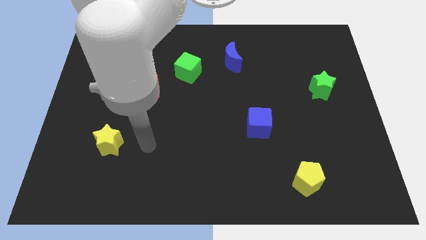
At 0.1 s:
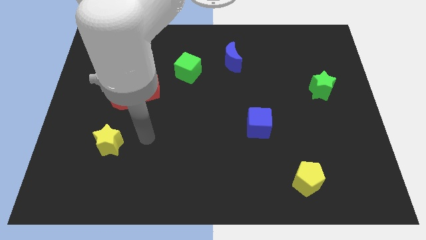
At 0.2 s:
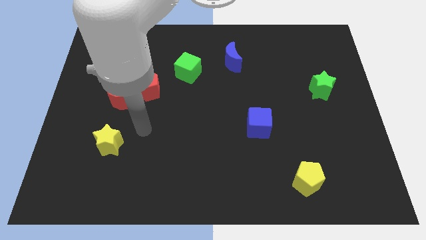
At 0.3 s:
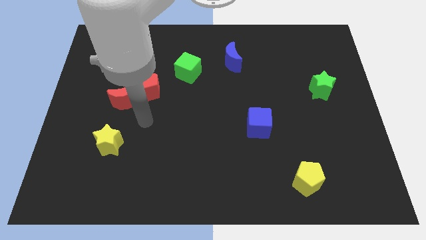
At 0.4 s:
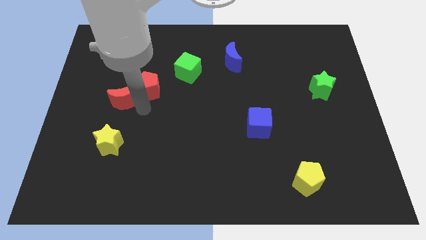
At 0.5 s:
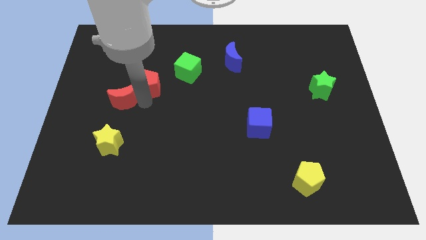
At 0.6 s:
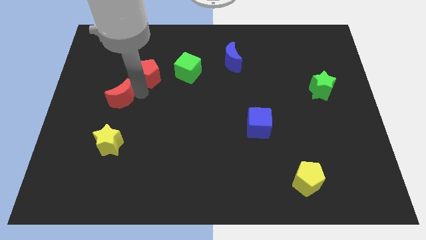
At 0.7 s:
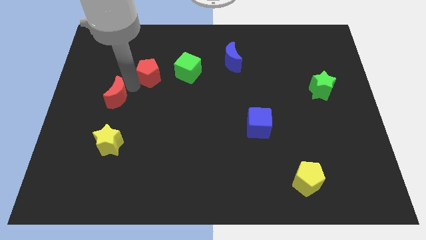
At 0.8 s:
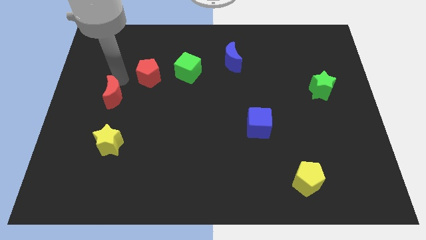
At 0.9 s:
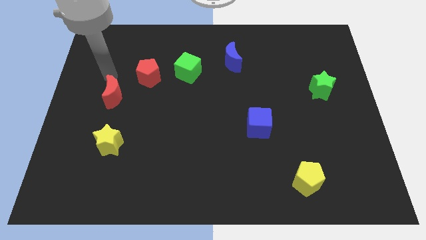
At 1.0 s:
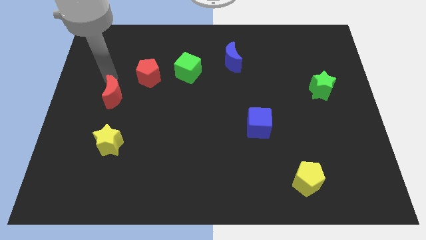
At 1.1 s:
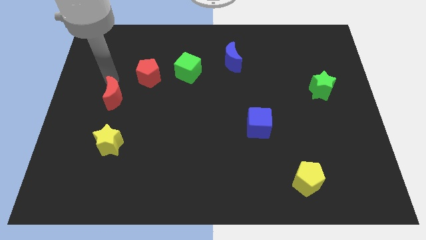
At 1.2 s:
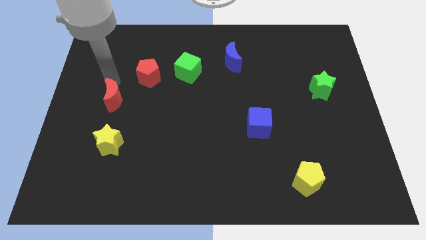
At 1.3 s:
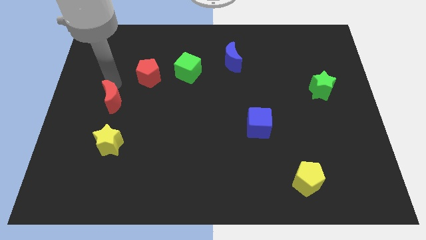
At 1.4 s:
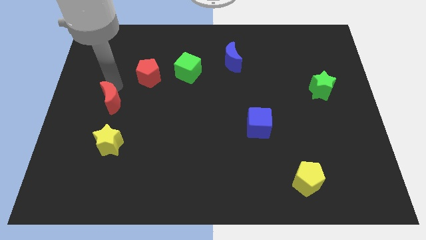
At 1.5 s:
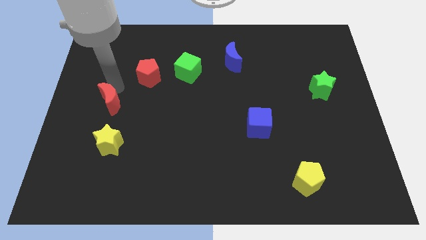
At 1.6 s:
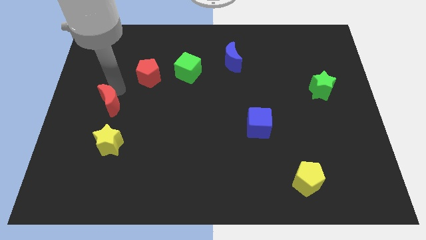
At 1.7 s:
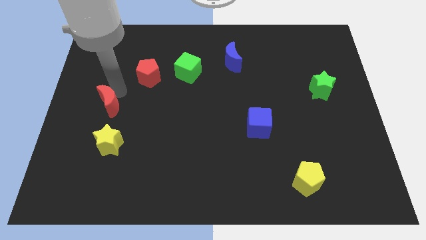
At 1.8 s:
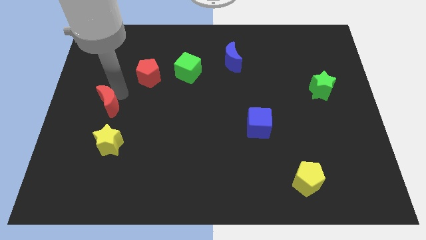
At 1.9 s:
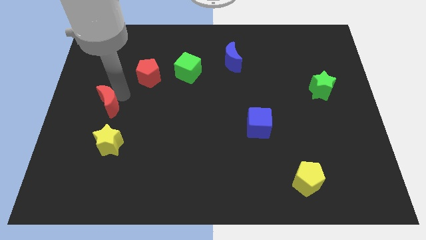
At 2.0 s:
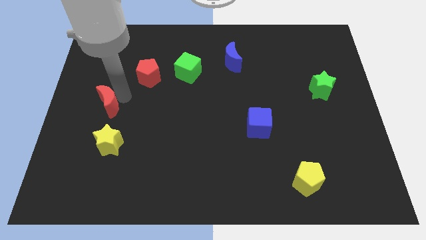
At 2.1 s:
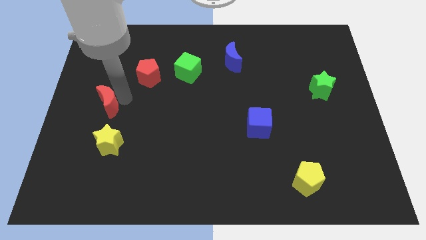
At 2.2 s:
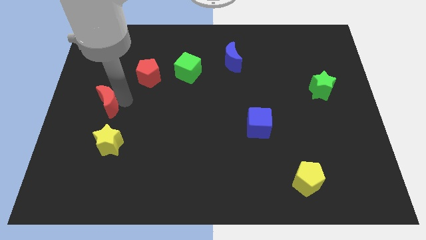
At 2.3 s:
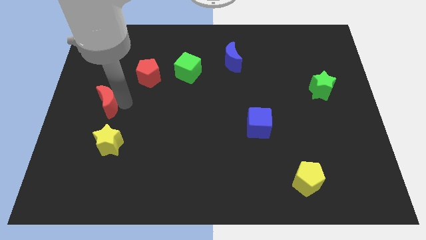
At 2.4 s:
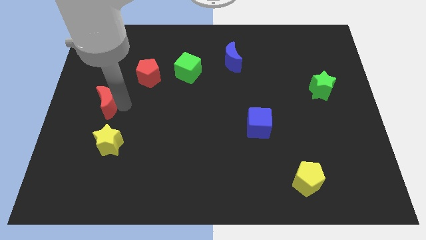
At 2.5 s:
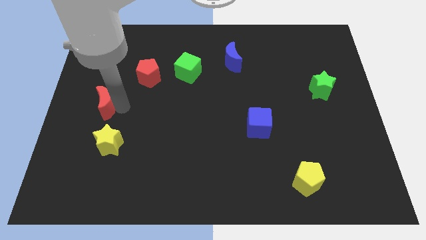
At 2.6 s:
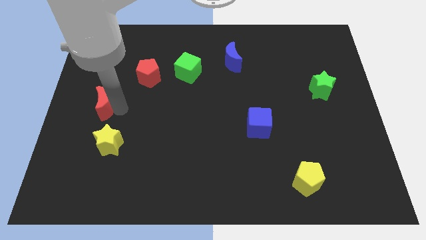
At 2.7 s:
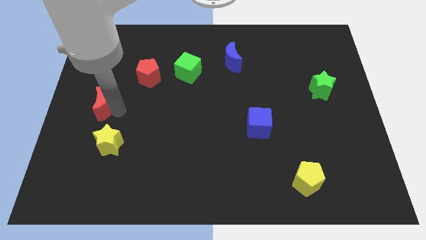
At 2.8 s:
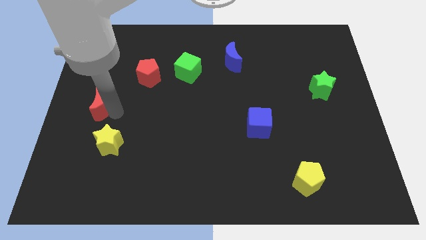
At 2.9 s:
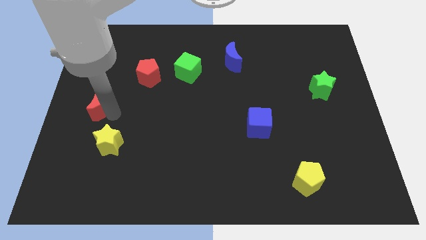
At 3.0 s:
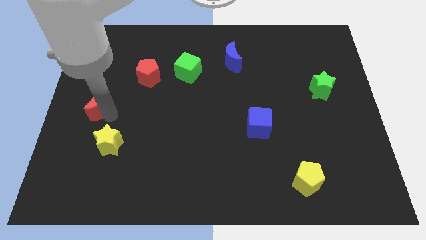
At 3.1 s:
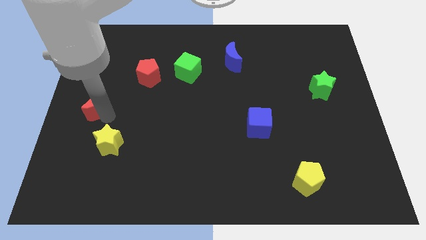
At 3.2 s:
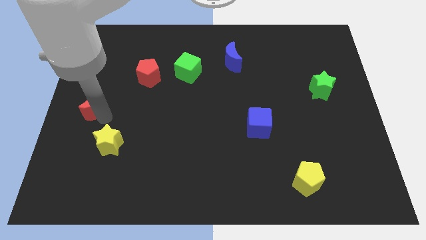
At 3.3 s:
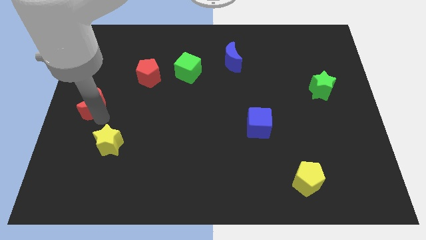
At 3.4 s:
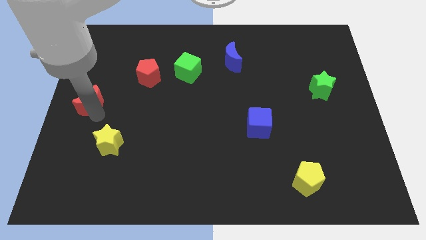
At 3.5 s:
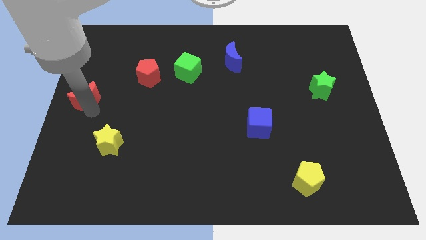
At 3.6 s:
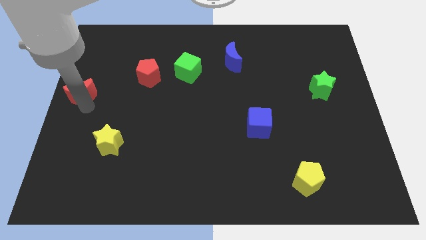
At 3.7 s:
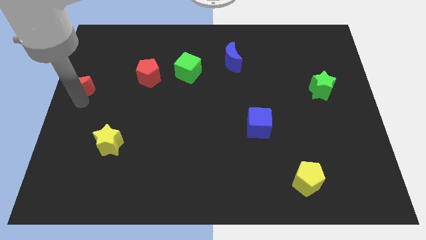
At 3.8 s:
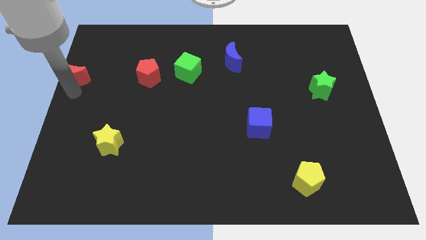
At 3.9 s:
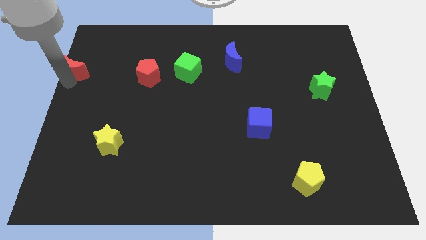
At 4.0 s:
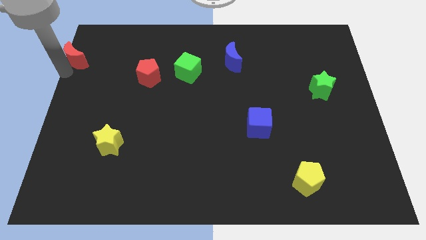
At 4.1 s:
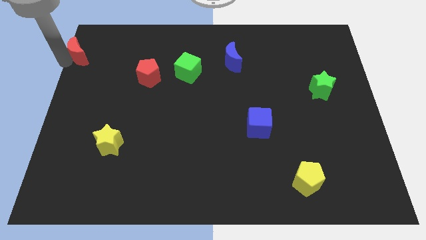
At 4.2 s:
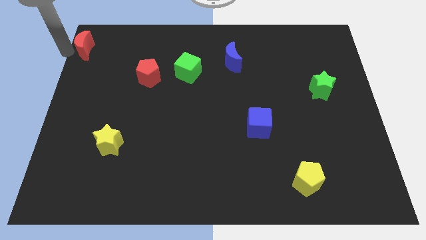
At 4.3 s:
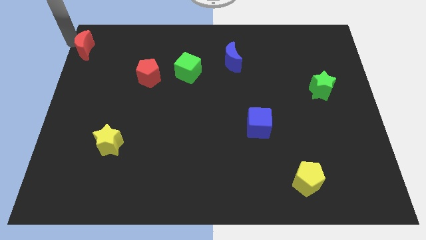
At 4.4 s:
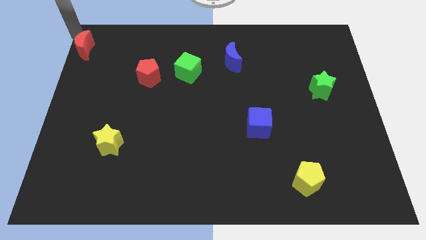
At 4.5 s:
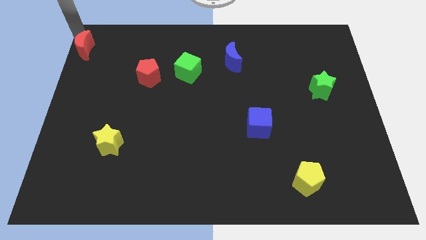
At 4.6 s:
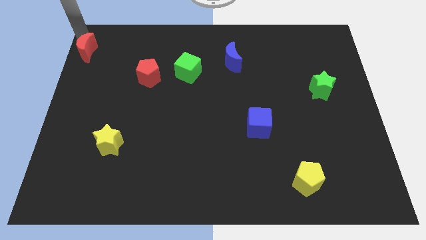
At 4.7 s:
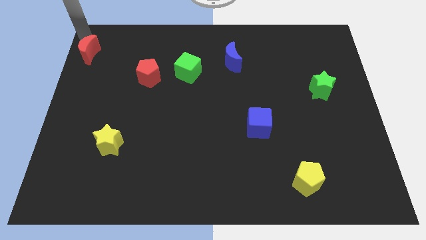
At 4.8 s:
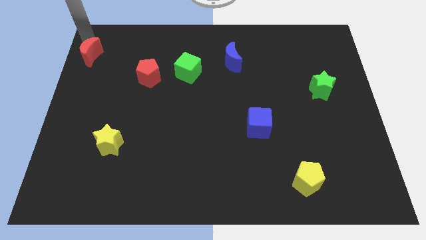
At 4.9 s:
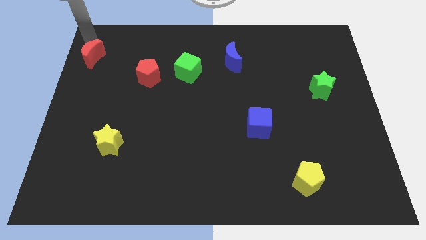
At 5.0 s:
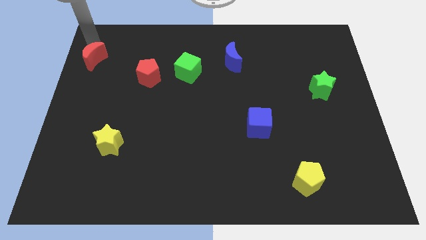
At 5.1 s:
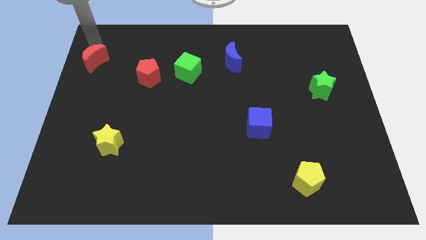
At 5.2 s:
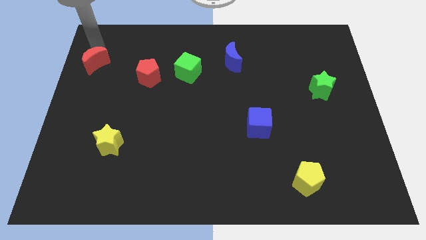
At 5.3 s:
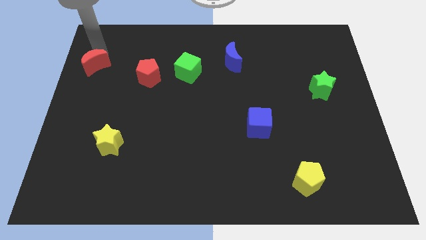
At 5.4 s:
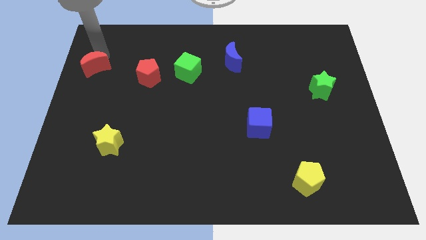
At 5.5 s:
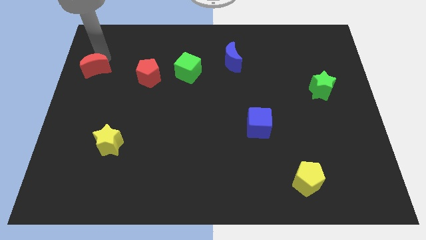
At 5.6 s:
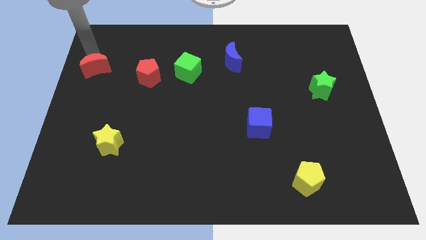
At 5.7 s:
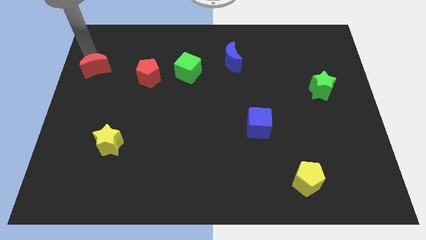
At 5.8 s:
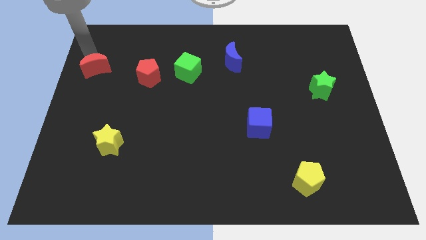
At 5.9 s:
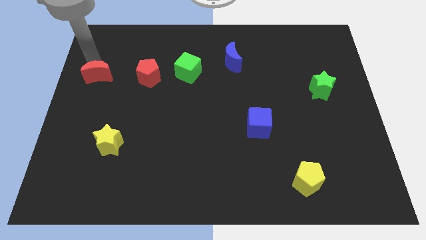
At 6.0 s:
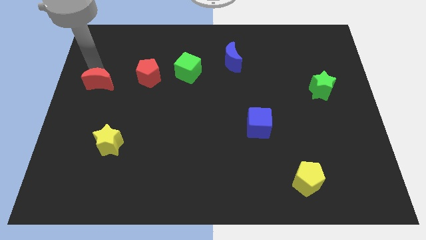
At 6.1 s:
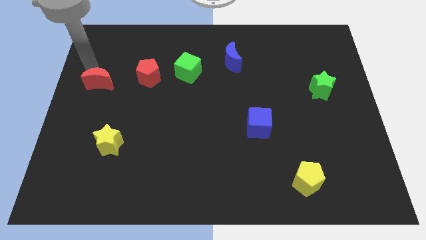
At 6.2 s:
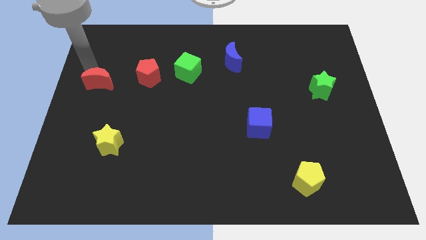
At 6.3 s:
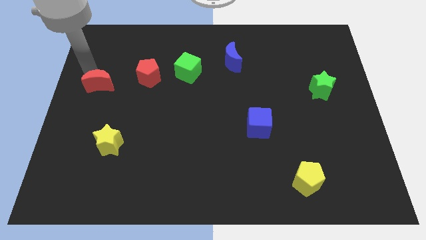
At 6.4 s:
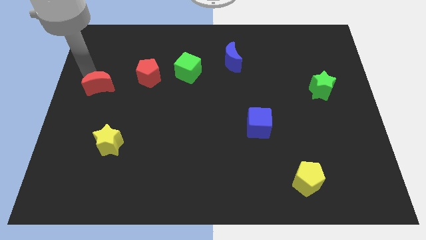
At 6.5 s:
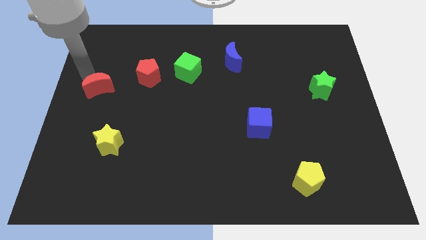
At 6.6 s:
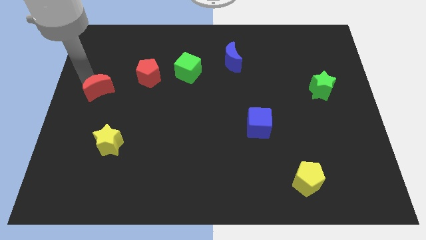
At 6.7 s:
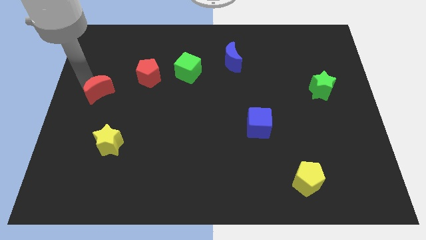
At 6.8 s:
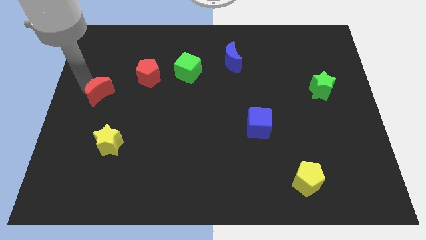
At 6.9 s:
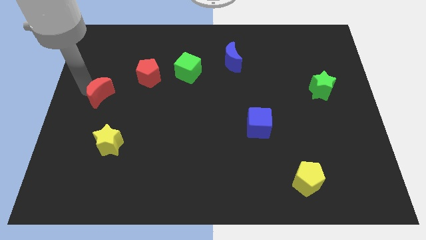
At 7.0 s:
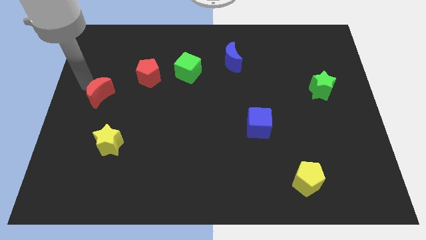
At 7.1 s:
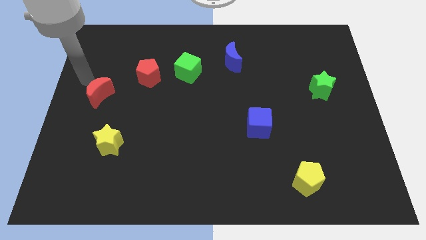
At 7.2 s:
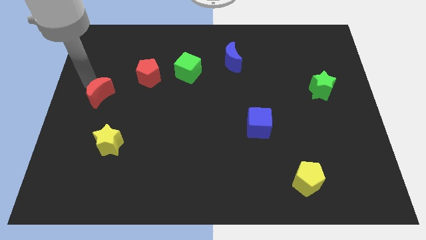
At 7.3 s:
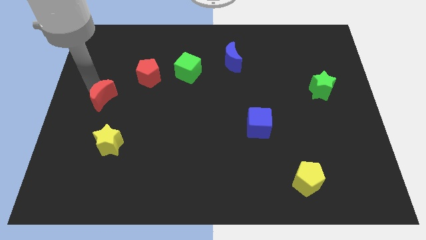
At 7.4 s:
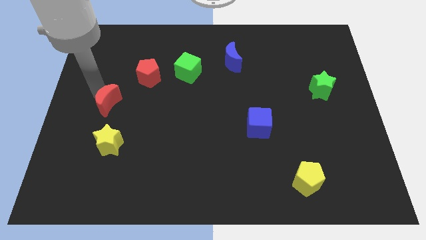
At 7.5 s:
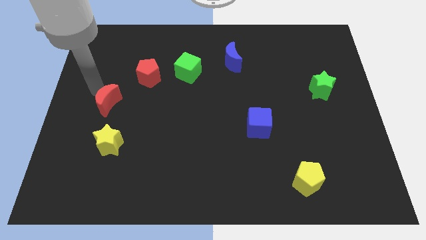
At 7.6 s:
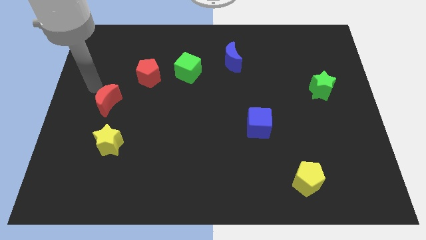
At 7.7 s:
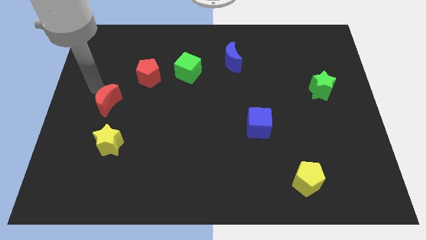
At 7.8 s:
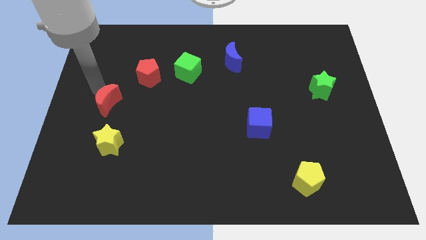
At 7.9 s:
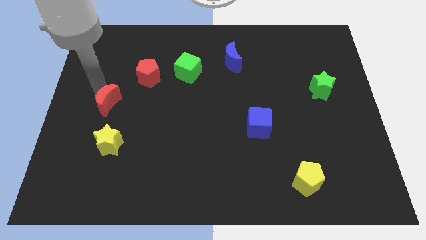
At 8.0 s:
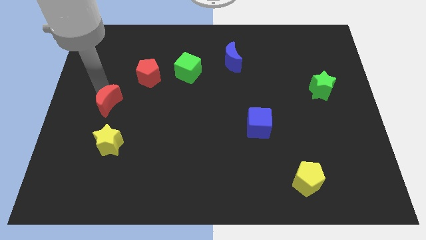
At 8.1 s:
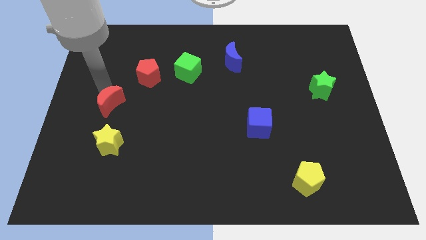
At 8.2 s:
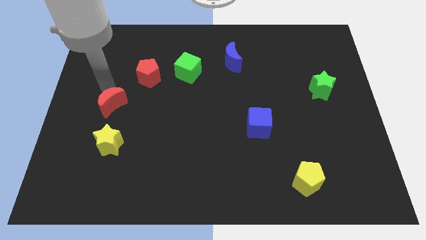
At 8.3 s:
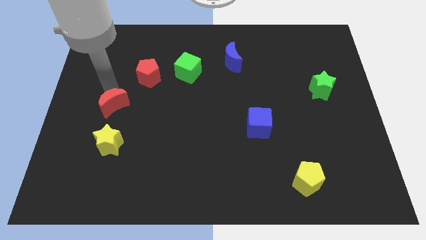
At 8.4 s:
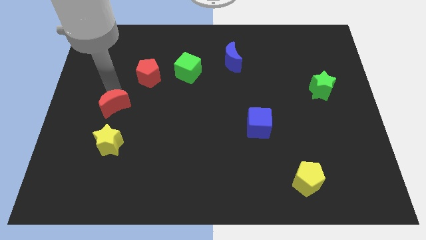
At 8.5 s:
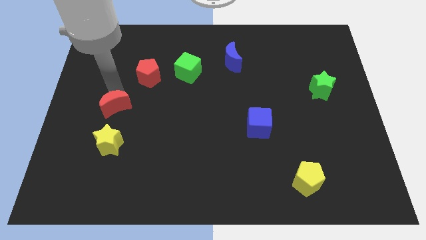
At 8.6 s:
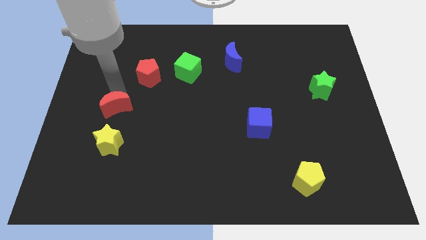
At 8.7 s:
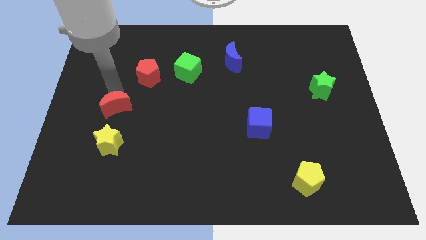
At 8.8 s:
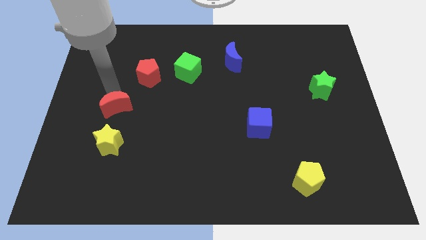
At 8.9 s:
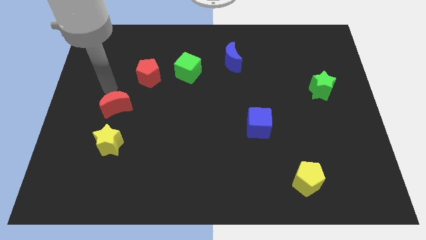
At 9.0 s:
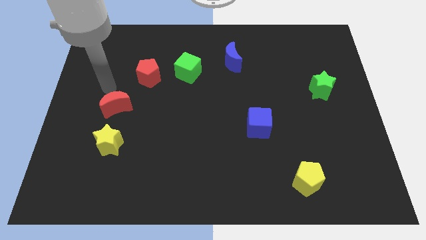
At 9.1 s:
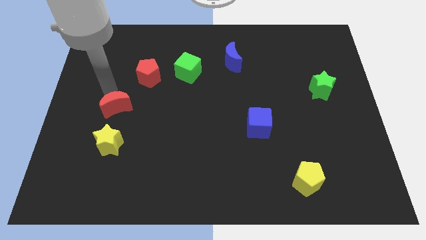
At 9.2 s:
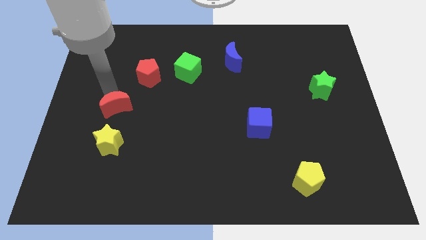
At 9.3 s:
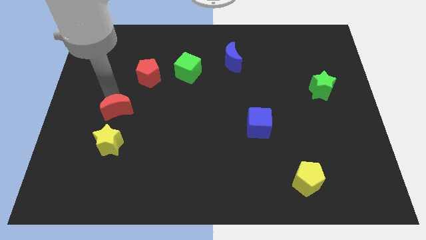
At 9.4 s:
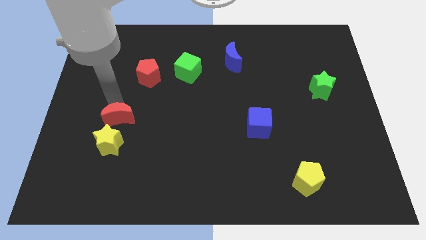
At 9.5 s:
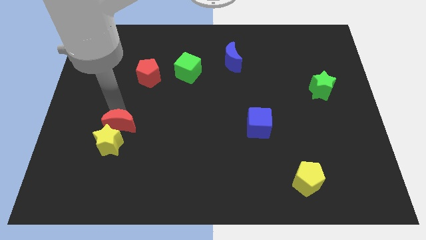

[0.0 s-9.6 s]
slide the red moon a little bit down
